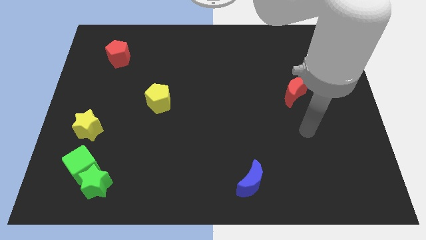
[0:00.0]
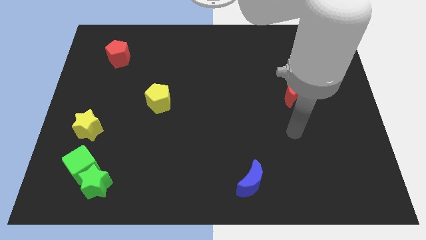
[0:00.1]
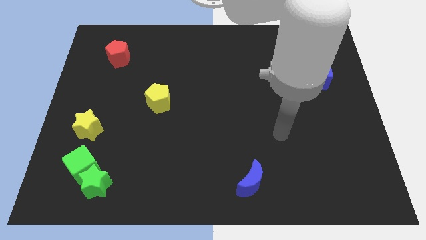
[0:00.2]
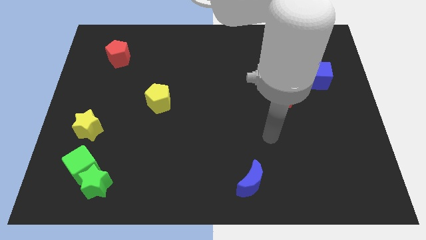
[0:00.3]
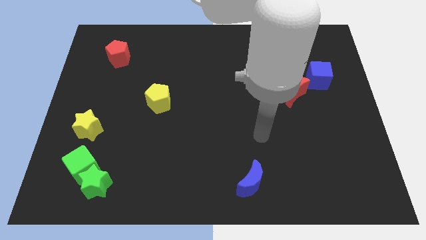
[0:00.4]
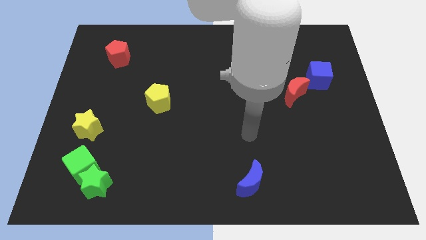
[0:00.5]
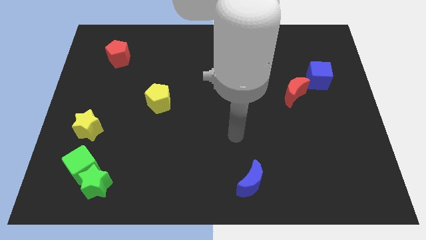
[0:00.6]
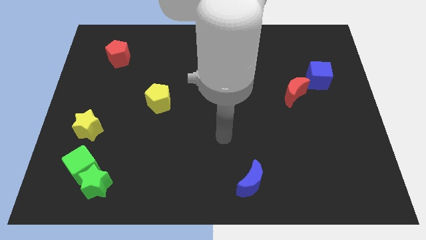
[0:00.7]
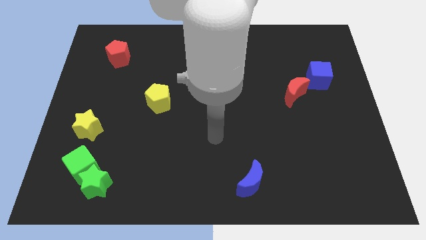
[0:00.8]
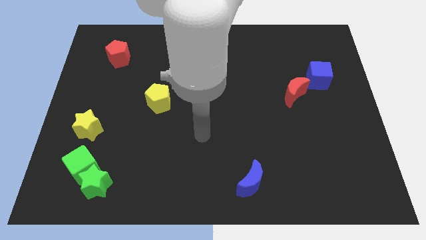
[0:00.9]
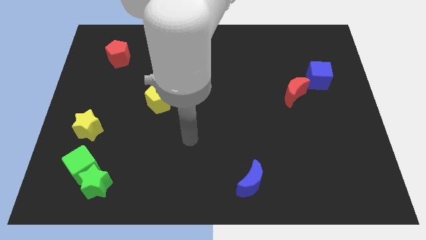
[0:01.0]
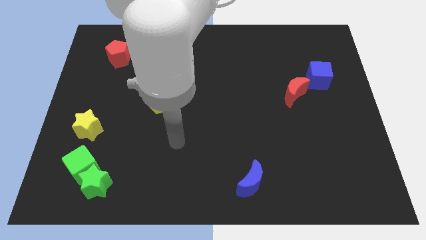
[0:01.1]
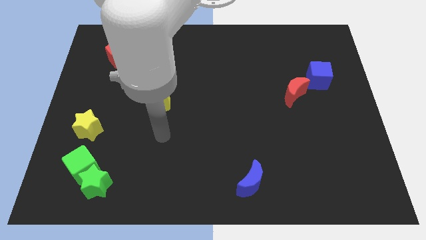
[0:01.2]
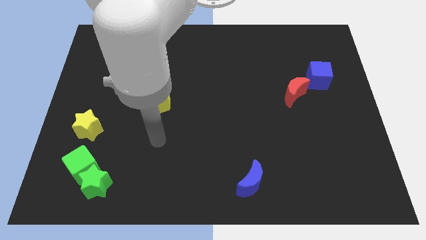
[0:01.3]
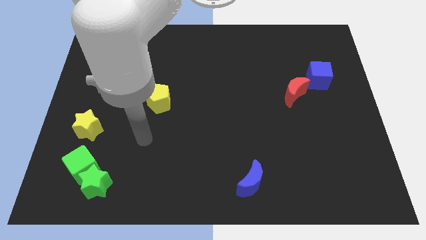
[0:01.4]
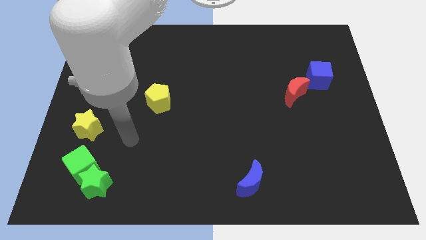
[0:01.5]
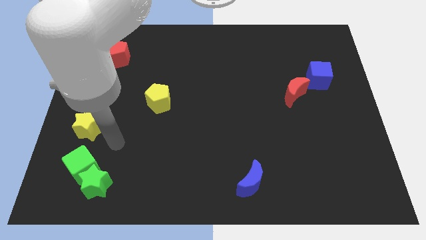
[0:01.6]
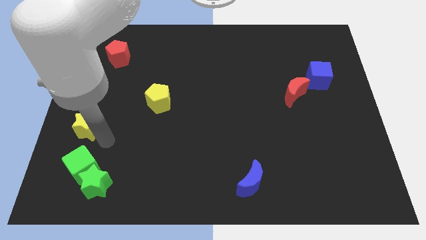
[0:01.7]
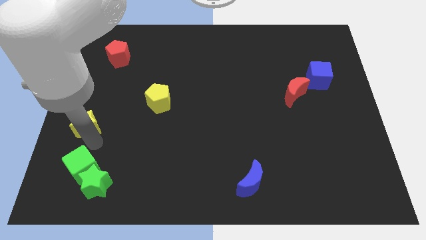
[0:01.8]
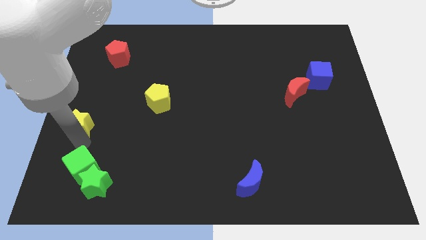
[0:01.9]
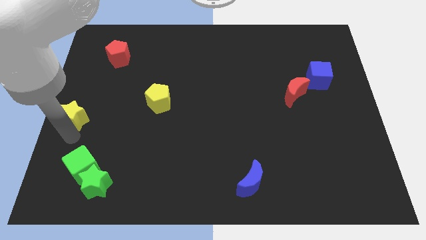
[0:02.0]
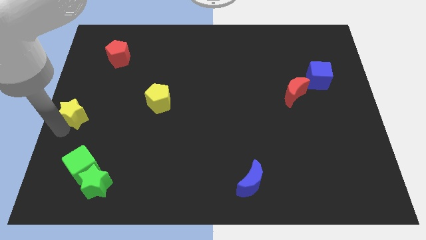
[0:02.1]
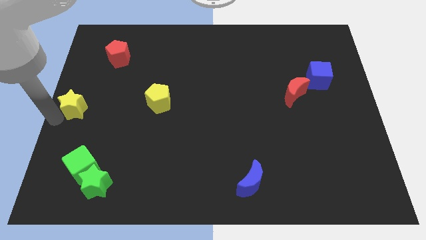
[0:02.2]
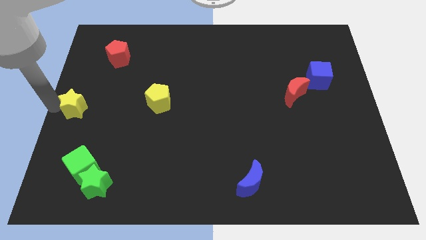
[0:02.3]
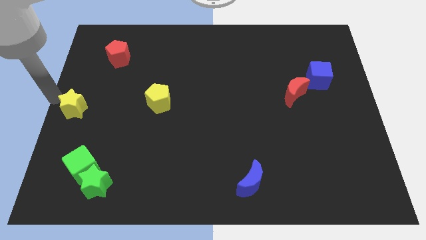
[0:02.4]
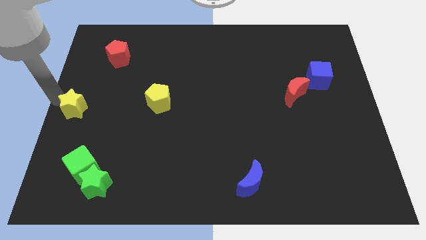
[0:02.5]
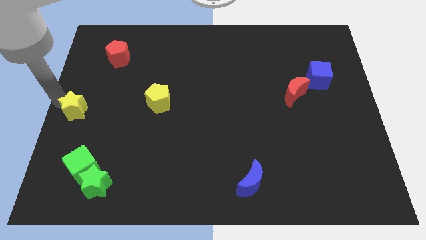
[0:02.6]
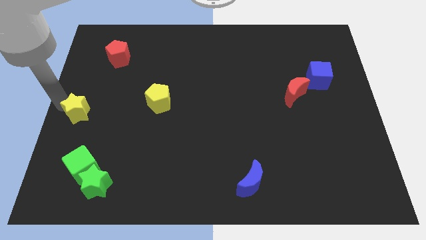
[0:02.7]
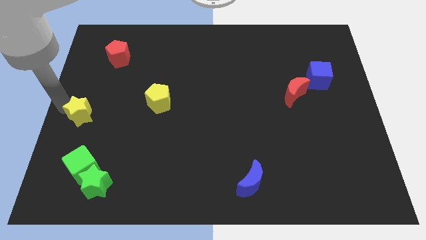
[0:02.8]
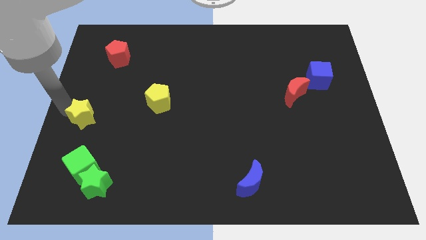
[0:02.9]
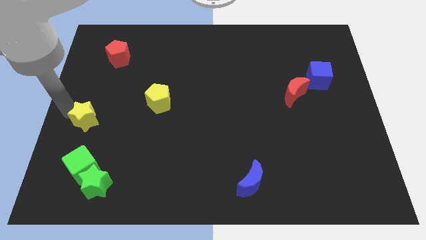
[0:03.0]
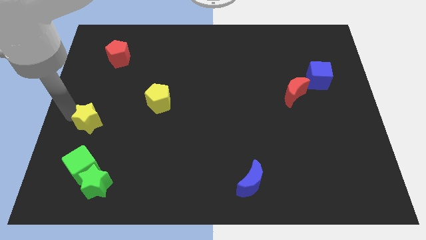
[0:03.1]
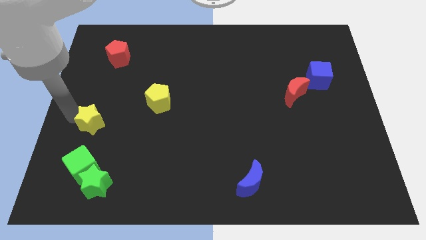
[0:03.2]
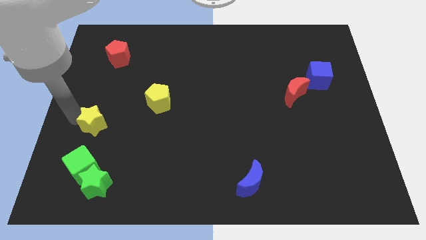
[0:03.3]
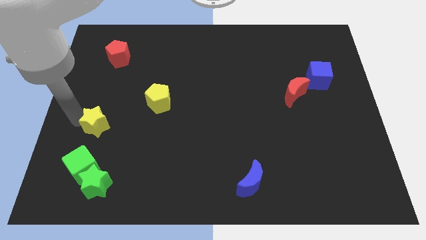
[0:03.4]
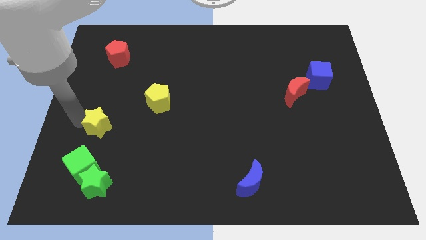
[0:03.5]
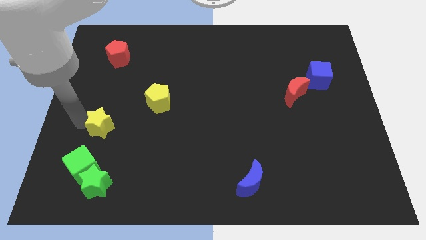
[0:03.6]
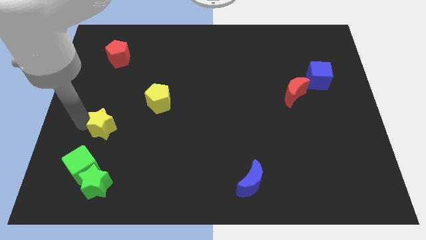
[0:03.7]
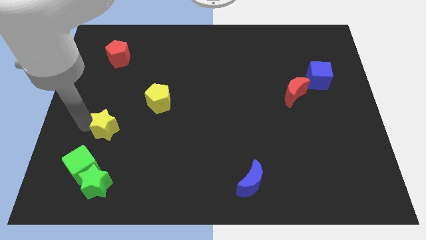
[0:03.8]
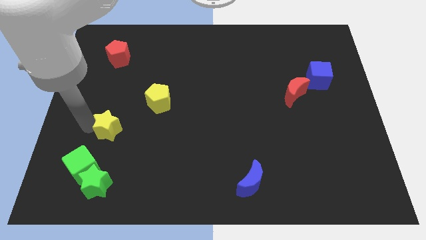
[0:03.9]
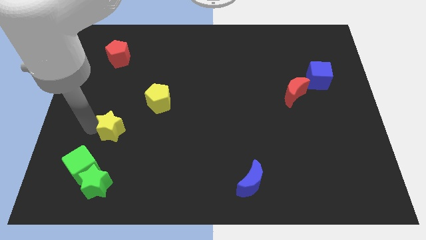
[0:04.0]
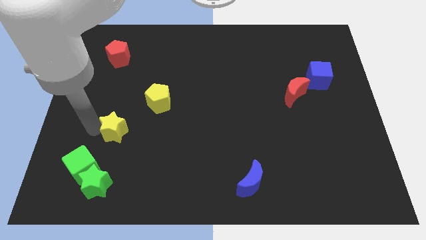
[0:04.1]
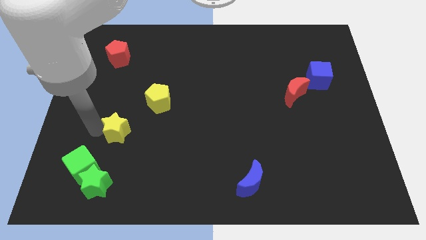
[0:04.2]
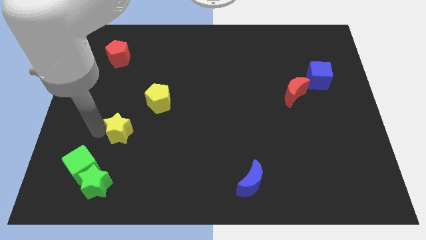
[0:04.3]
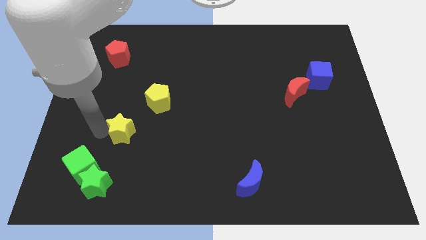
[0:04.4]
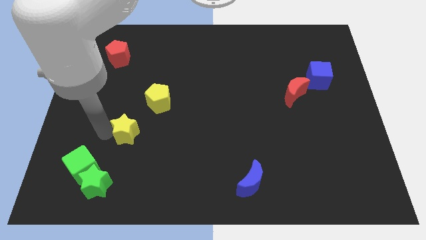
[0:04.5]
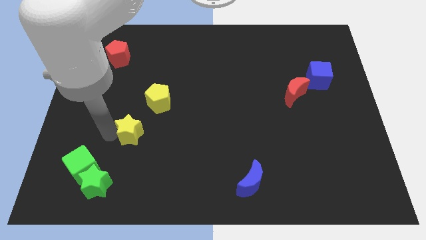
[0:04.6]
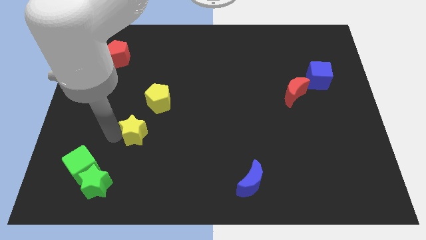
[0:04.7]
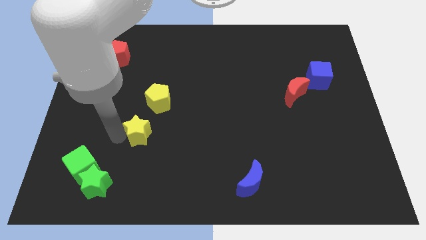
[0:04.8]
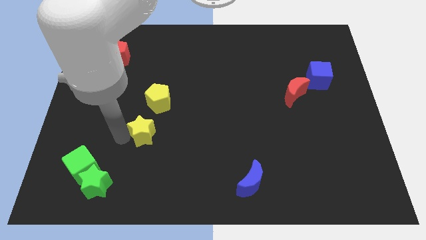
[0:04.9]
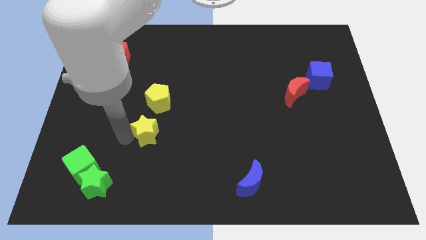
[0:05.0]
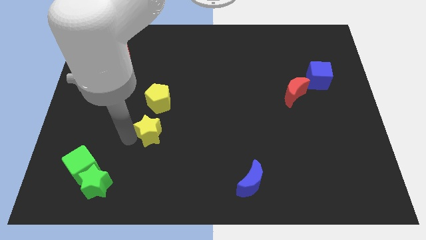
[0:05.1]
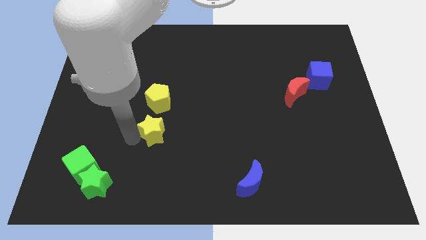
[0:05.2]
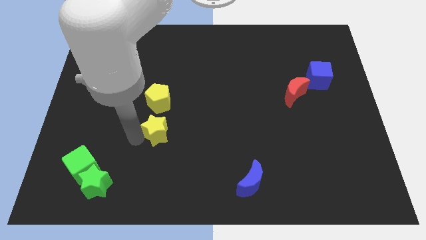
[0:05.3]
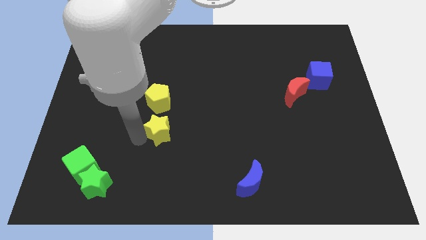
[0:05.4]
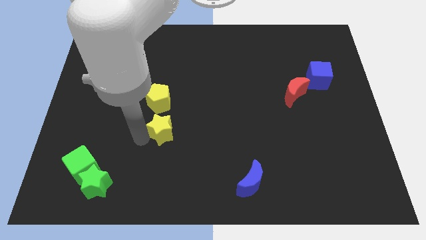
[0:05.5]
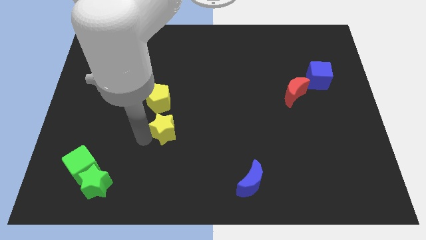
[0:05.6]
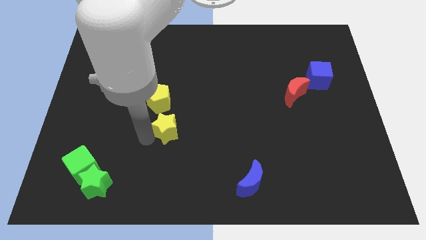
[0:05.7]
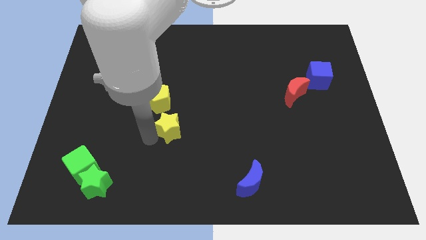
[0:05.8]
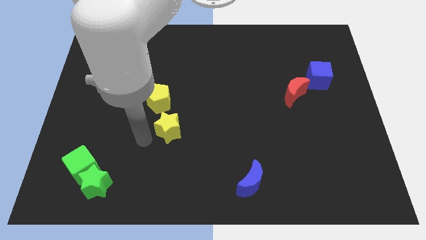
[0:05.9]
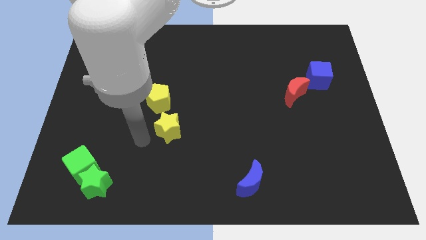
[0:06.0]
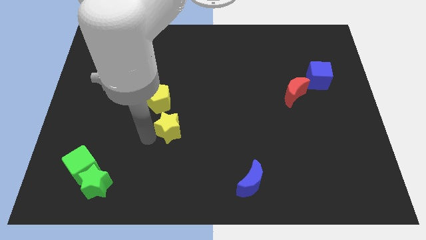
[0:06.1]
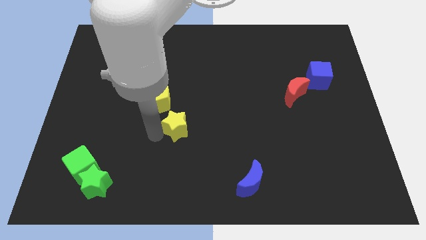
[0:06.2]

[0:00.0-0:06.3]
push the yellow star right

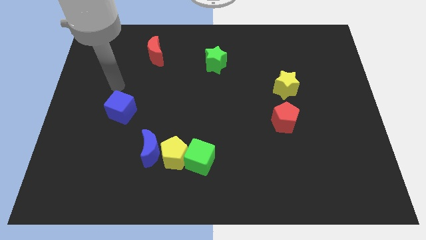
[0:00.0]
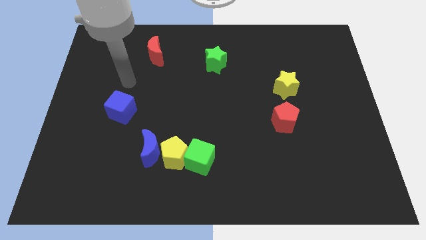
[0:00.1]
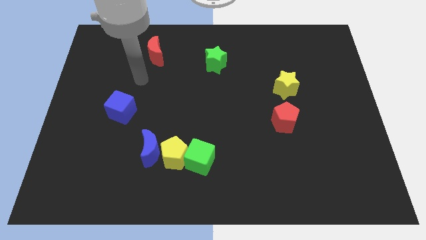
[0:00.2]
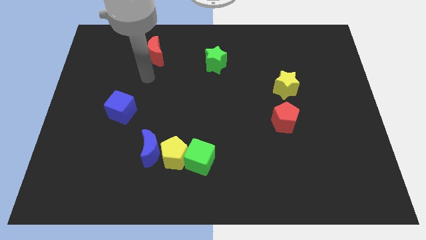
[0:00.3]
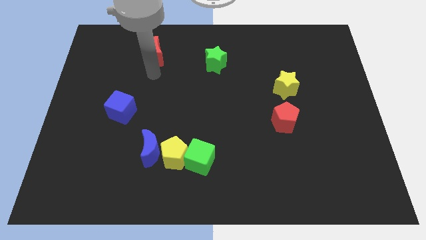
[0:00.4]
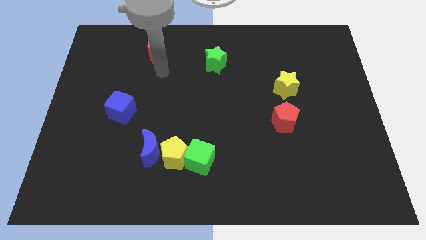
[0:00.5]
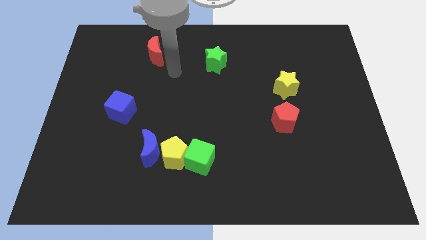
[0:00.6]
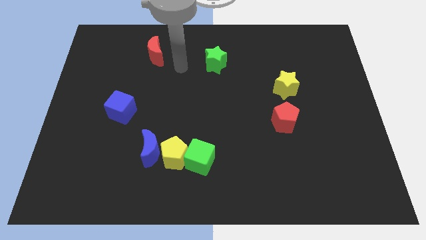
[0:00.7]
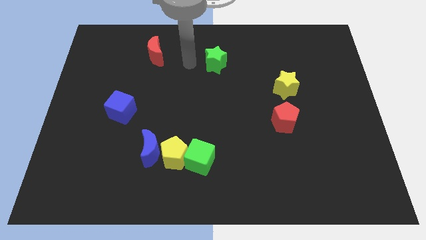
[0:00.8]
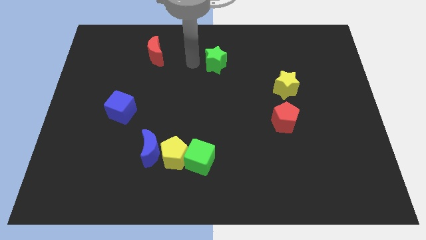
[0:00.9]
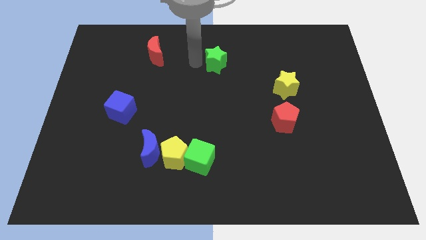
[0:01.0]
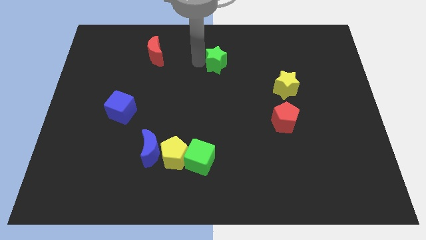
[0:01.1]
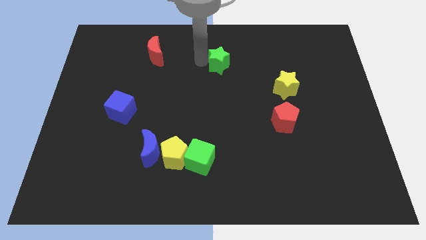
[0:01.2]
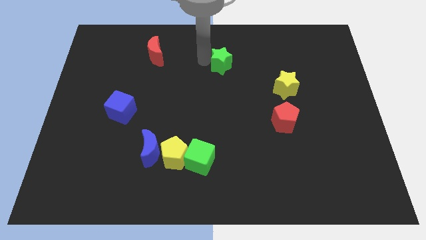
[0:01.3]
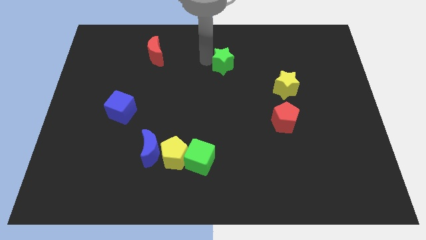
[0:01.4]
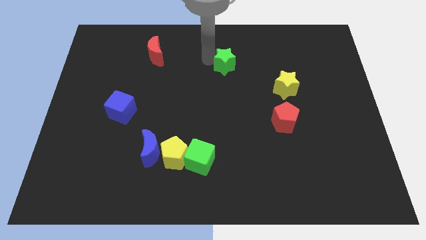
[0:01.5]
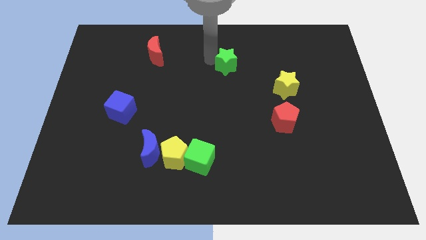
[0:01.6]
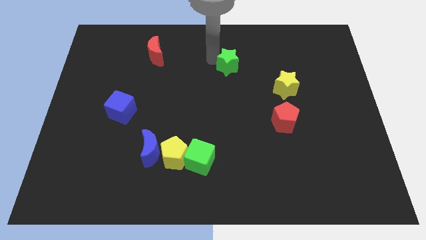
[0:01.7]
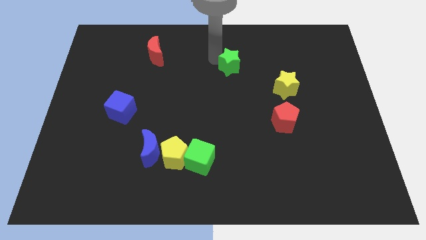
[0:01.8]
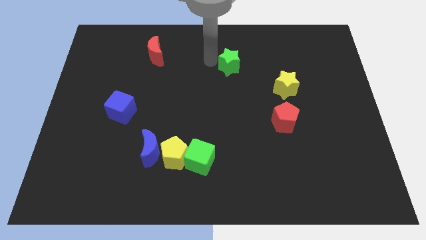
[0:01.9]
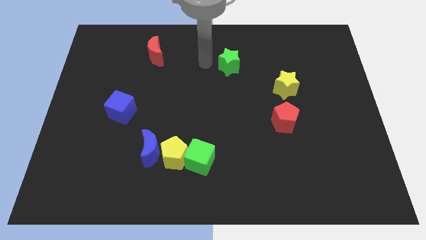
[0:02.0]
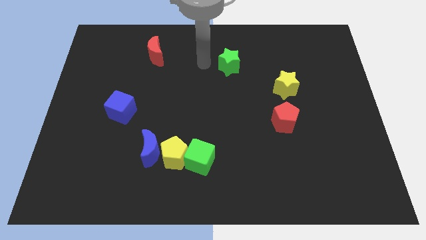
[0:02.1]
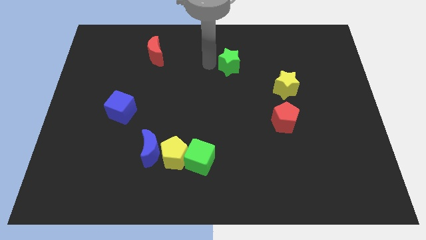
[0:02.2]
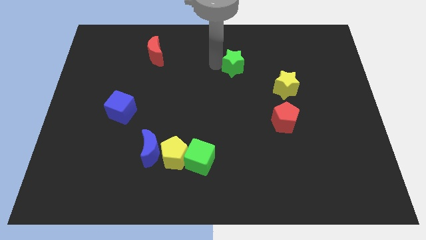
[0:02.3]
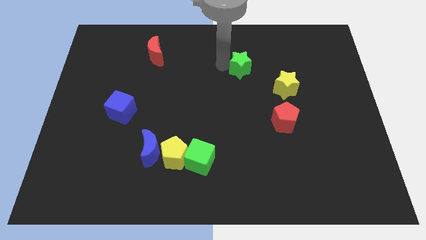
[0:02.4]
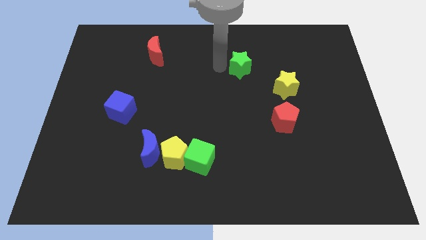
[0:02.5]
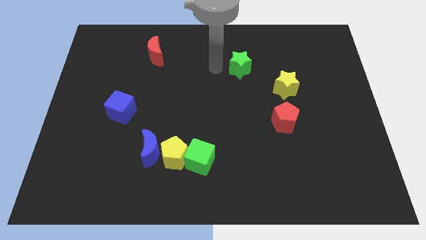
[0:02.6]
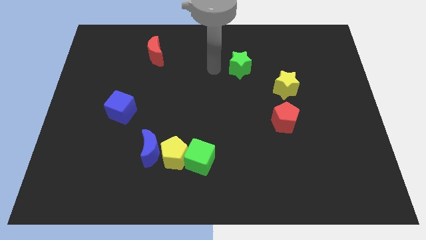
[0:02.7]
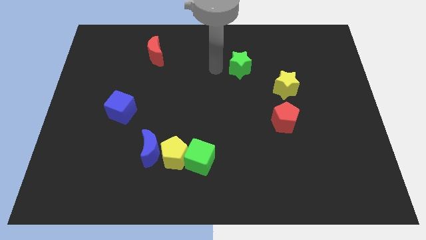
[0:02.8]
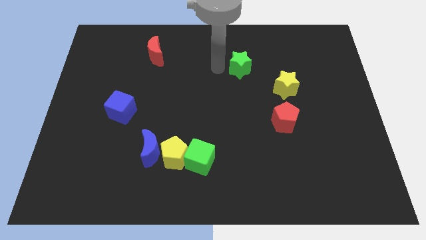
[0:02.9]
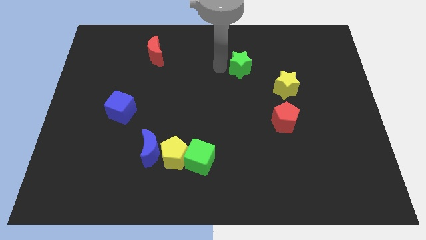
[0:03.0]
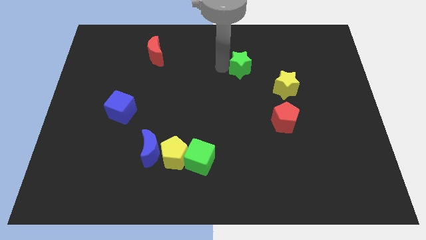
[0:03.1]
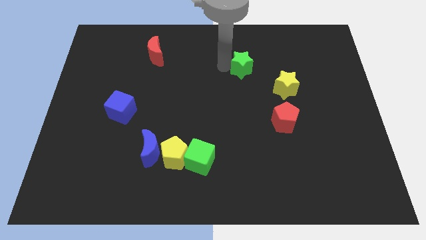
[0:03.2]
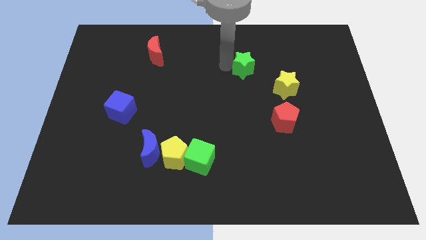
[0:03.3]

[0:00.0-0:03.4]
move the green star a bit right
